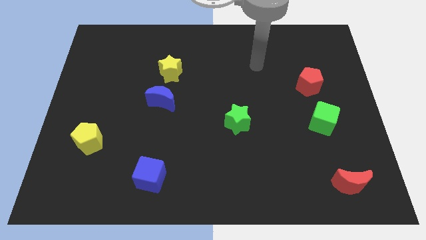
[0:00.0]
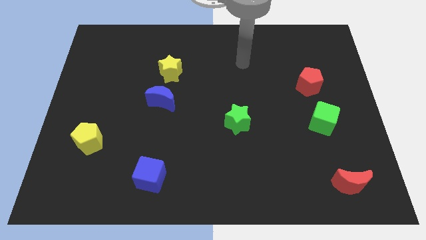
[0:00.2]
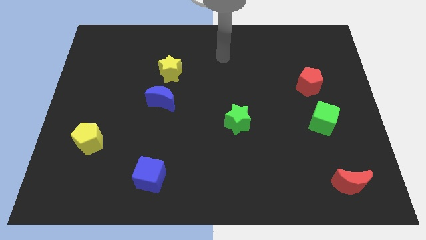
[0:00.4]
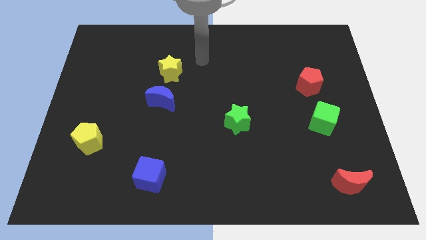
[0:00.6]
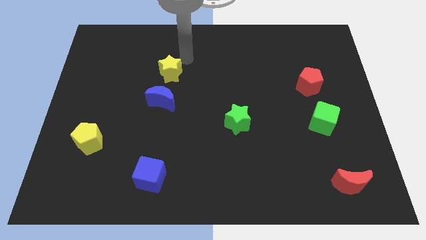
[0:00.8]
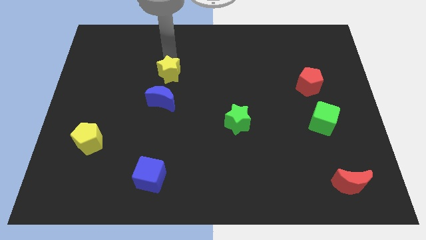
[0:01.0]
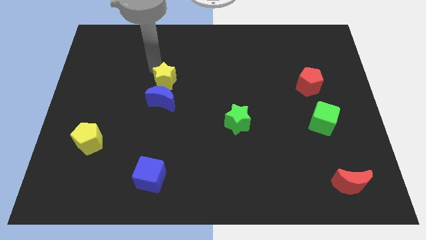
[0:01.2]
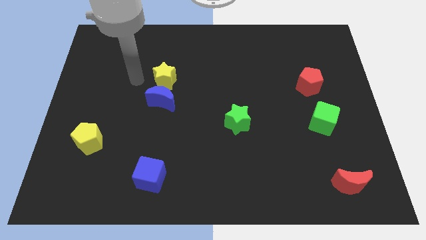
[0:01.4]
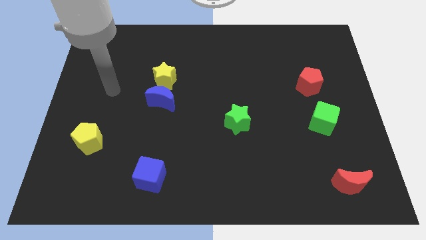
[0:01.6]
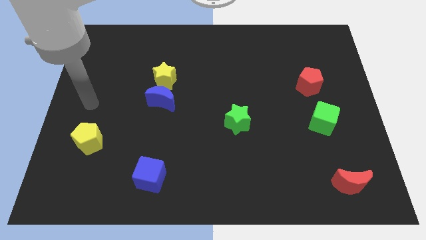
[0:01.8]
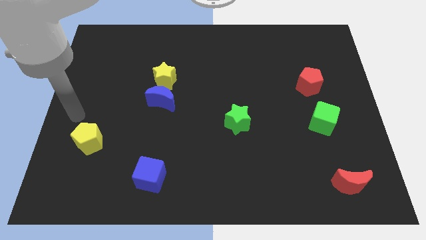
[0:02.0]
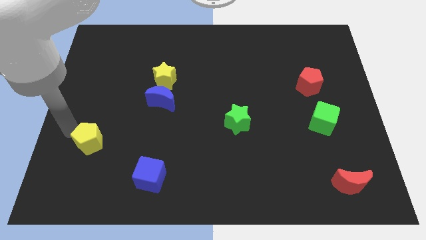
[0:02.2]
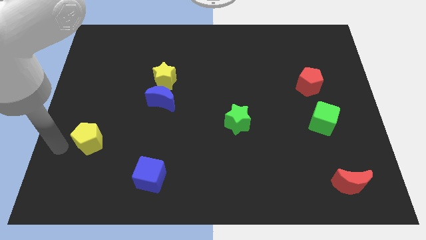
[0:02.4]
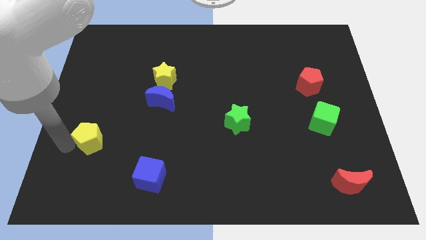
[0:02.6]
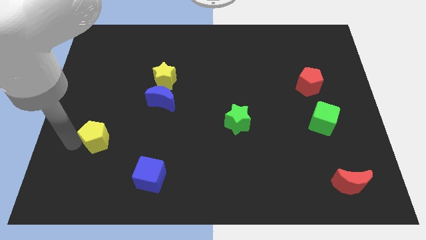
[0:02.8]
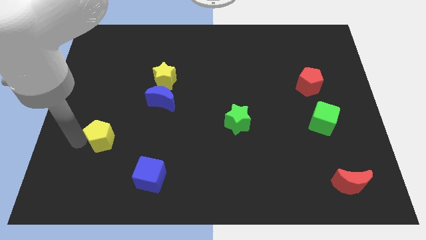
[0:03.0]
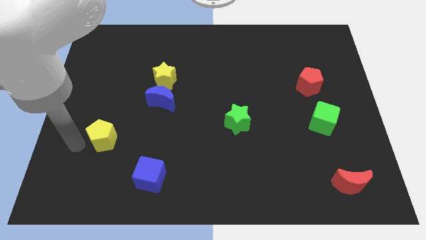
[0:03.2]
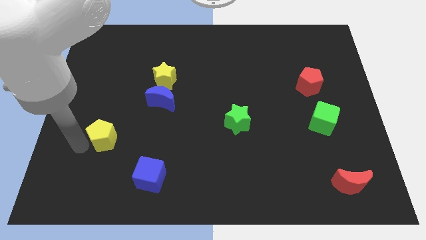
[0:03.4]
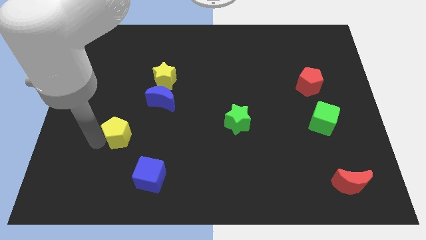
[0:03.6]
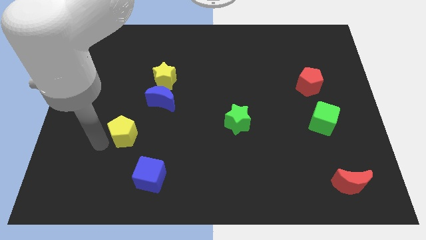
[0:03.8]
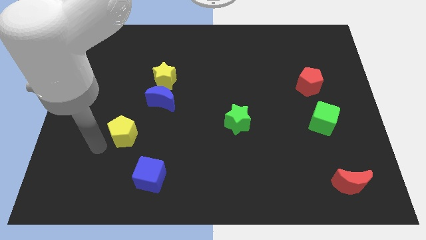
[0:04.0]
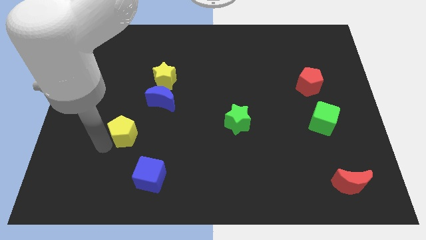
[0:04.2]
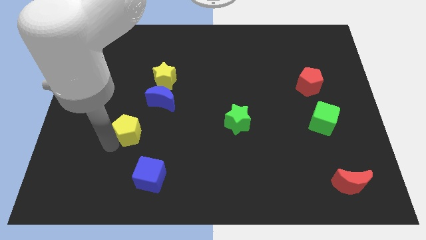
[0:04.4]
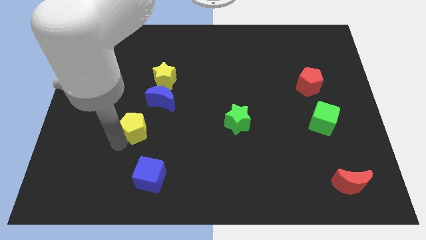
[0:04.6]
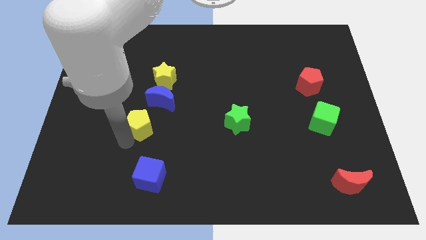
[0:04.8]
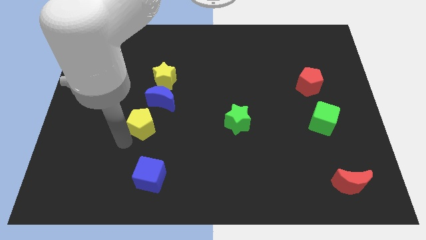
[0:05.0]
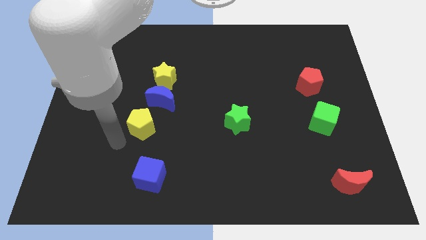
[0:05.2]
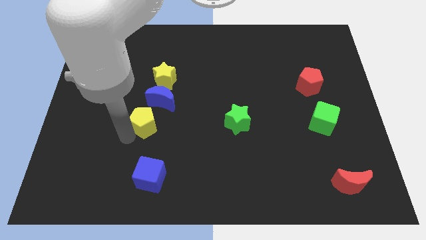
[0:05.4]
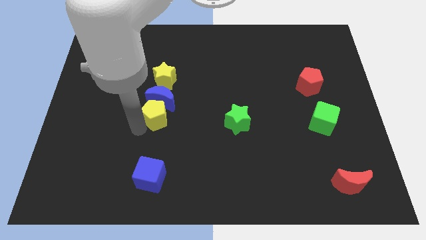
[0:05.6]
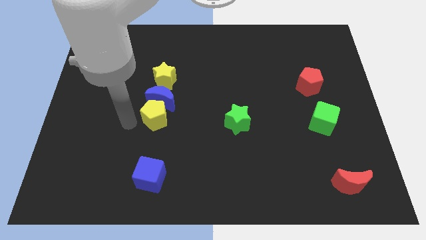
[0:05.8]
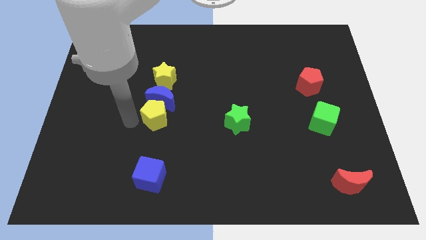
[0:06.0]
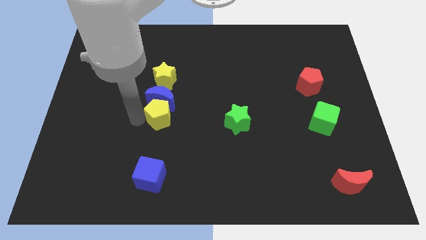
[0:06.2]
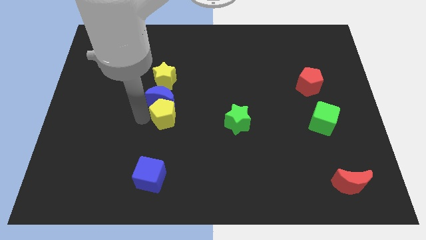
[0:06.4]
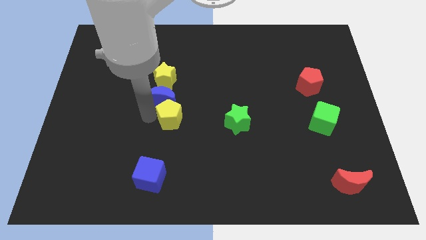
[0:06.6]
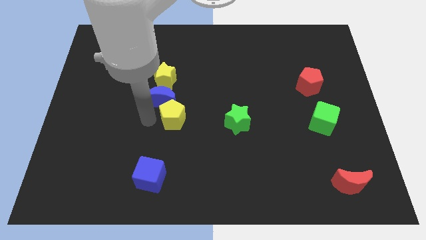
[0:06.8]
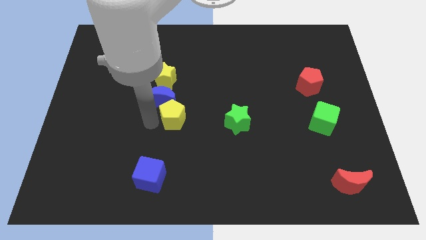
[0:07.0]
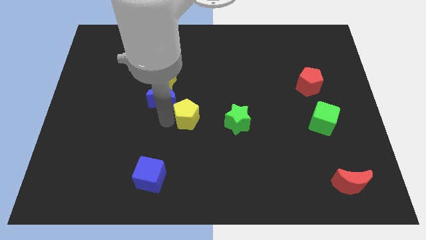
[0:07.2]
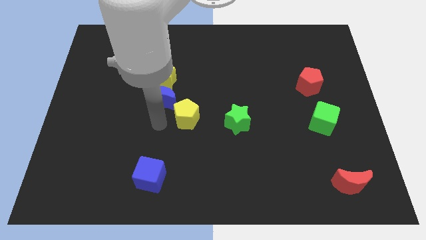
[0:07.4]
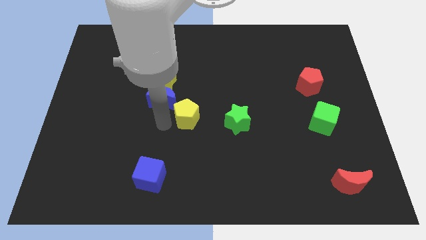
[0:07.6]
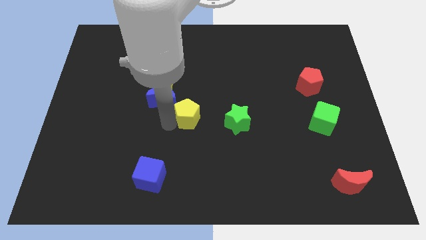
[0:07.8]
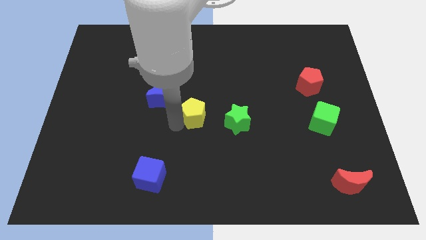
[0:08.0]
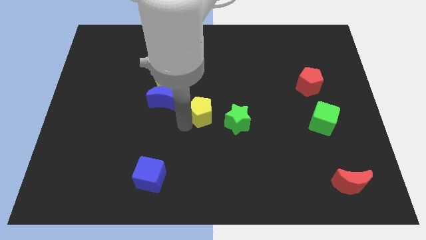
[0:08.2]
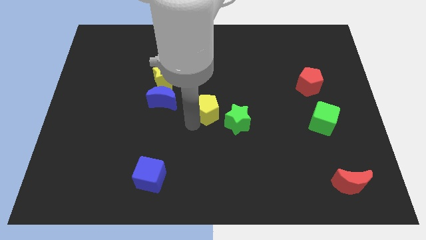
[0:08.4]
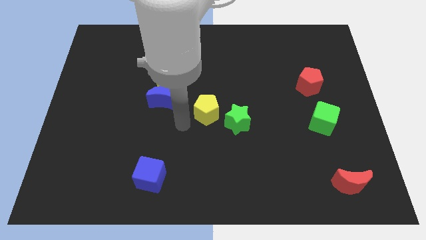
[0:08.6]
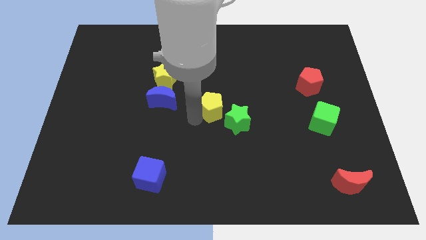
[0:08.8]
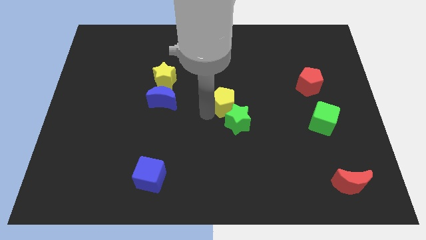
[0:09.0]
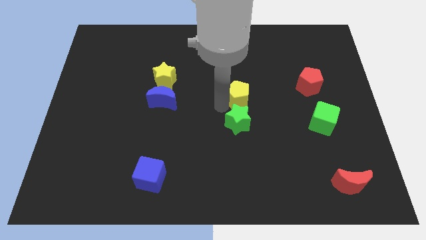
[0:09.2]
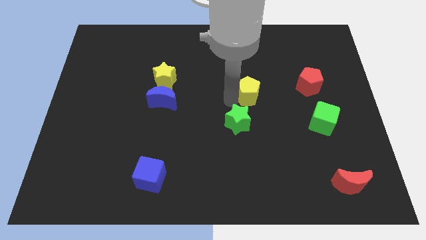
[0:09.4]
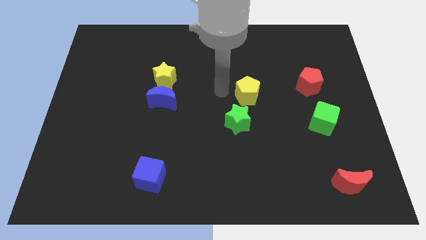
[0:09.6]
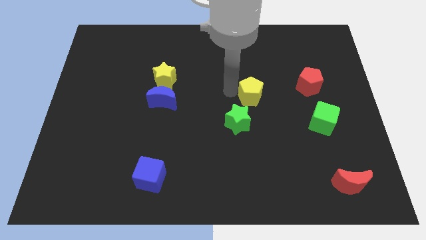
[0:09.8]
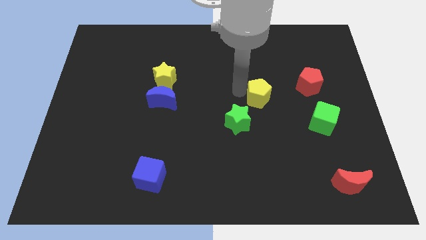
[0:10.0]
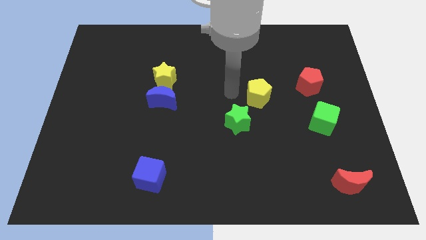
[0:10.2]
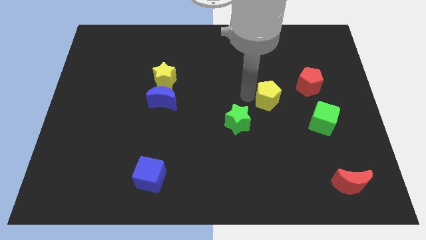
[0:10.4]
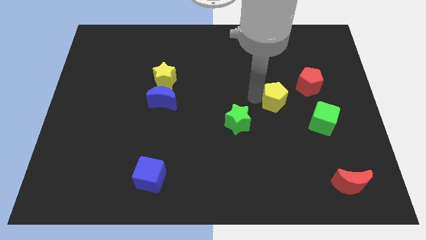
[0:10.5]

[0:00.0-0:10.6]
move the yellow pentagon to the top left side of the green cube

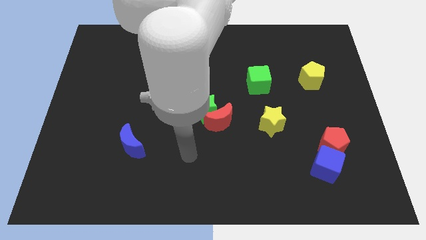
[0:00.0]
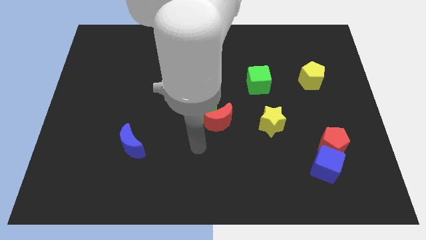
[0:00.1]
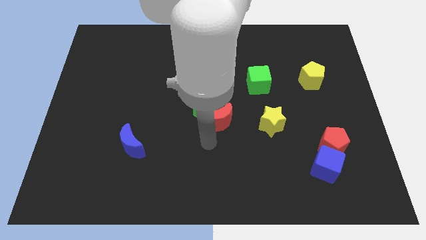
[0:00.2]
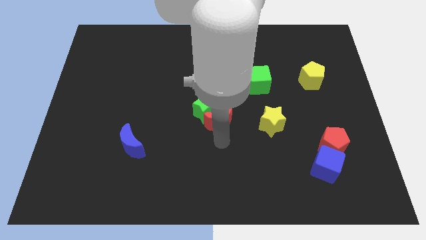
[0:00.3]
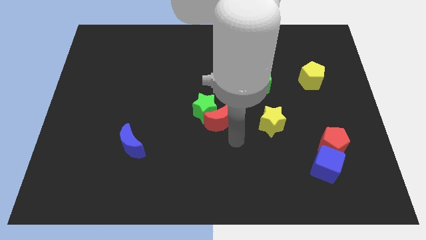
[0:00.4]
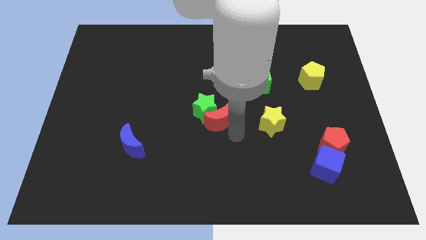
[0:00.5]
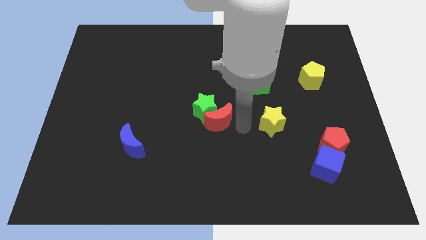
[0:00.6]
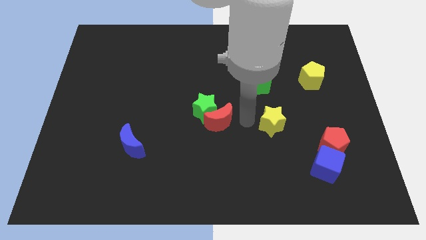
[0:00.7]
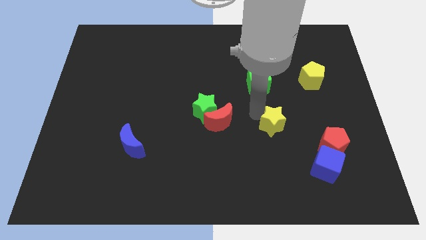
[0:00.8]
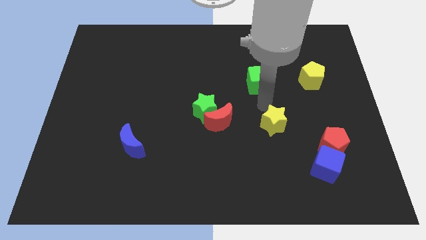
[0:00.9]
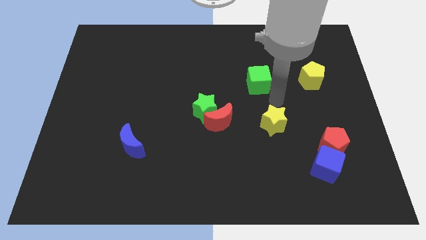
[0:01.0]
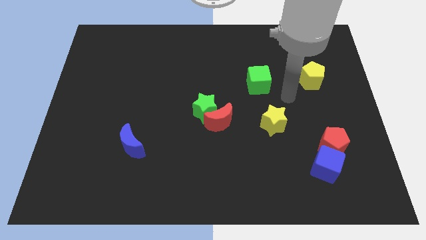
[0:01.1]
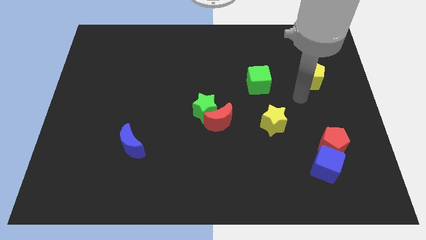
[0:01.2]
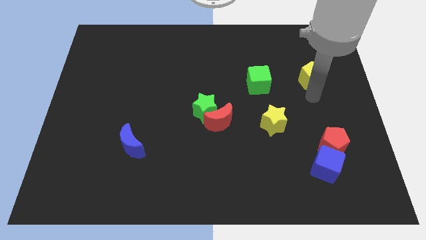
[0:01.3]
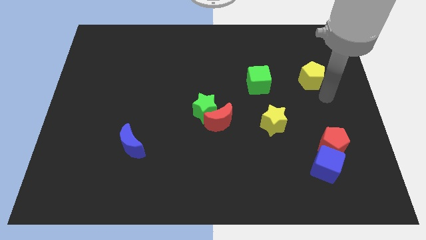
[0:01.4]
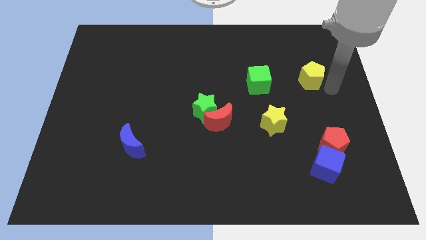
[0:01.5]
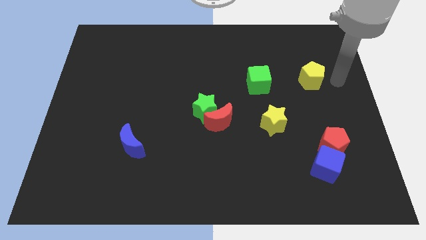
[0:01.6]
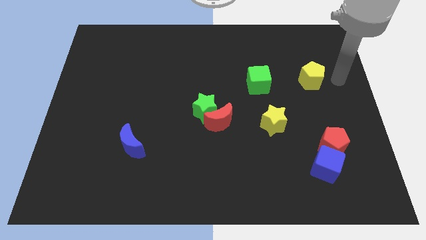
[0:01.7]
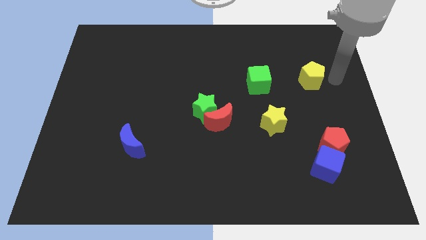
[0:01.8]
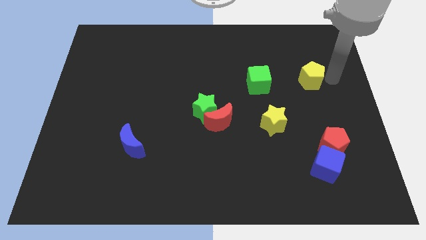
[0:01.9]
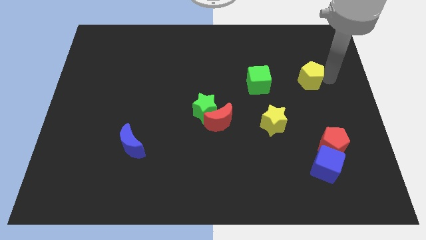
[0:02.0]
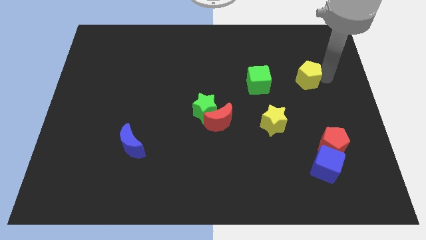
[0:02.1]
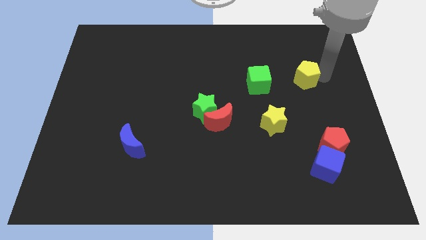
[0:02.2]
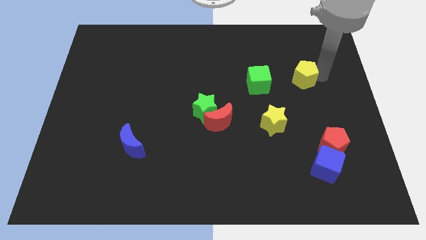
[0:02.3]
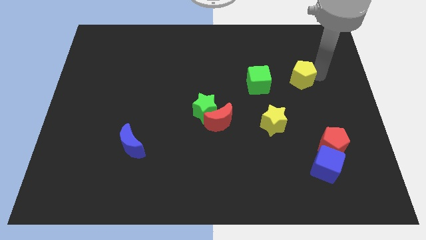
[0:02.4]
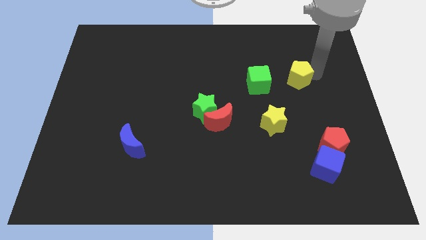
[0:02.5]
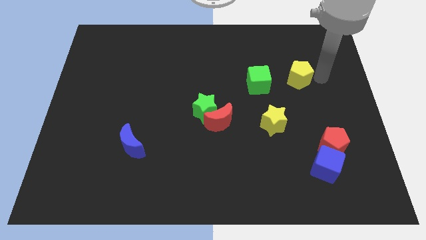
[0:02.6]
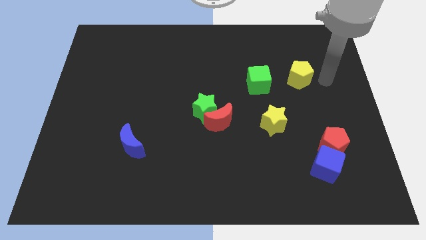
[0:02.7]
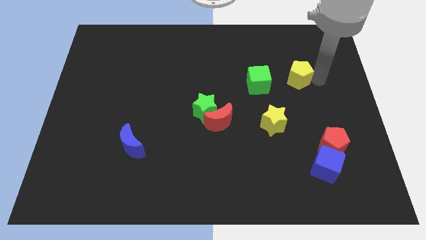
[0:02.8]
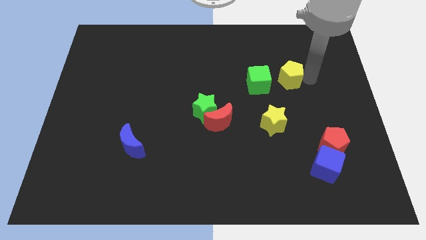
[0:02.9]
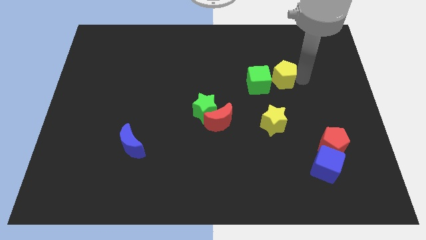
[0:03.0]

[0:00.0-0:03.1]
slide the yellow pentagon above the yellow star
